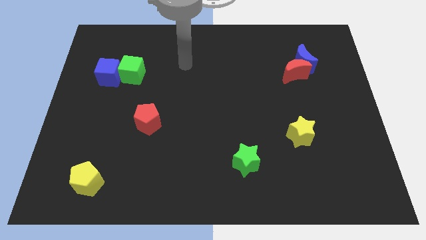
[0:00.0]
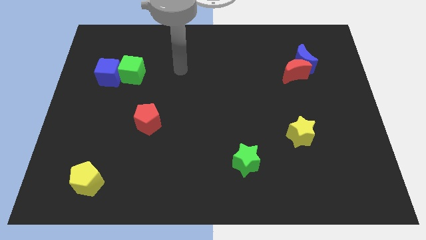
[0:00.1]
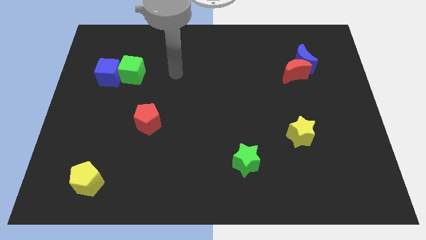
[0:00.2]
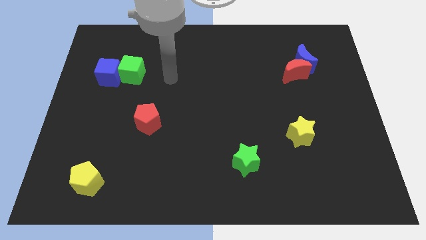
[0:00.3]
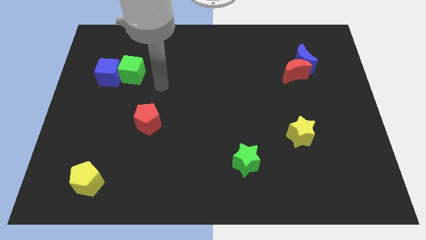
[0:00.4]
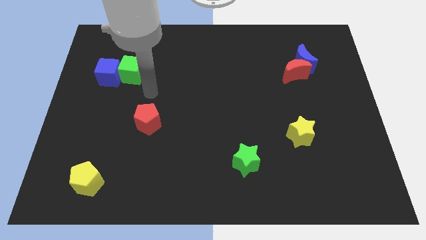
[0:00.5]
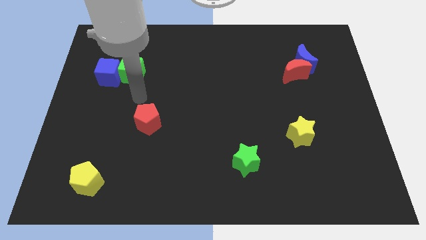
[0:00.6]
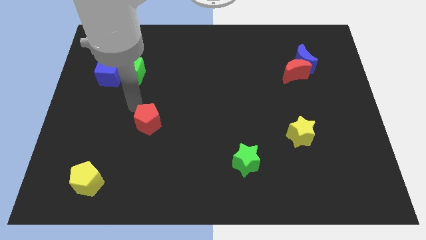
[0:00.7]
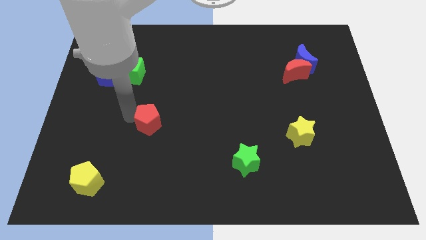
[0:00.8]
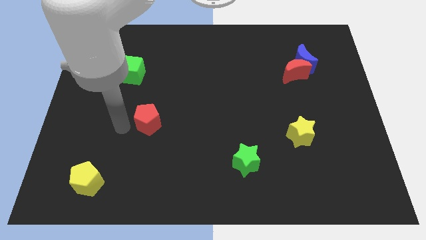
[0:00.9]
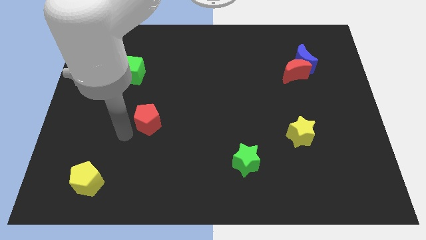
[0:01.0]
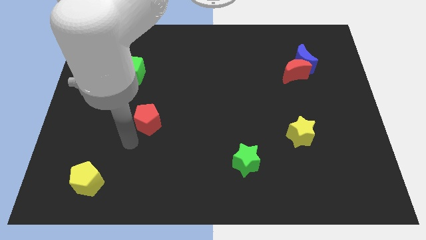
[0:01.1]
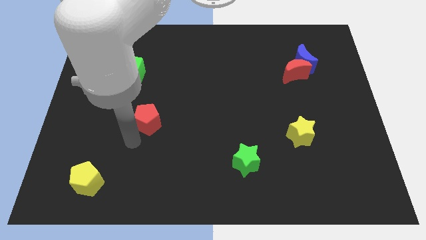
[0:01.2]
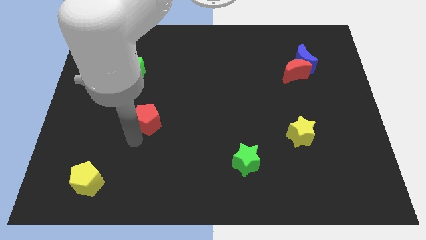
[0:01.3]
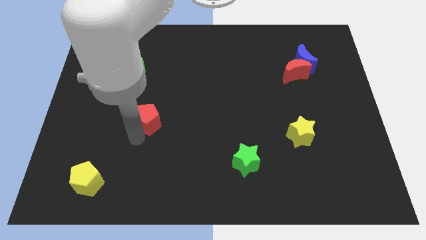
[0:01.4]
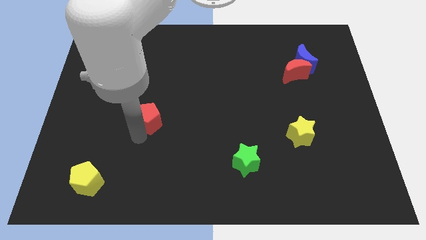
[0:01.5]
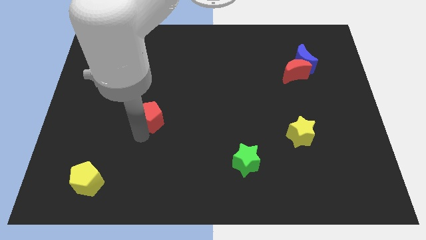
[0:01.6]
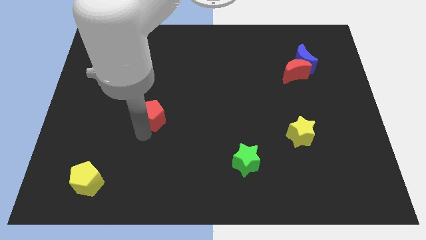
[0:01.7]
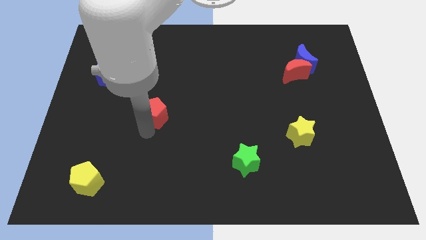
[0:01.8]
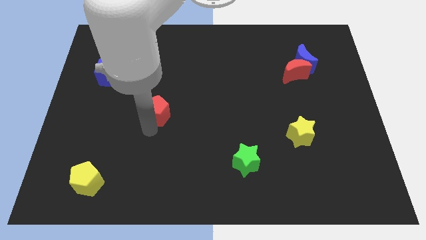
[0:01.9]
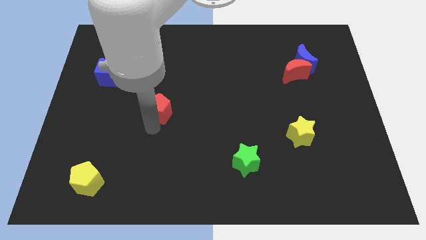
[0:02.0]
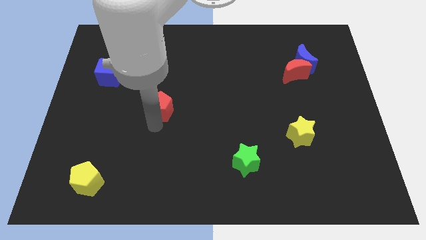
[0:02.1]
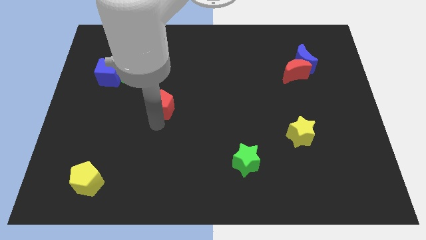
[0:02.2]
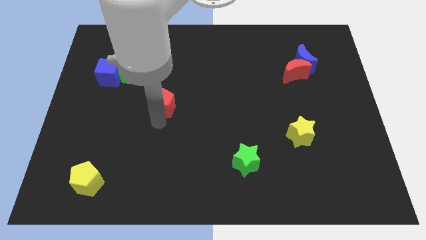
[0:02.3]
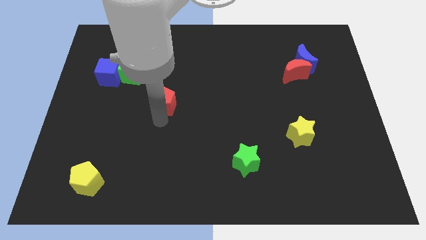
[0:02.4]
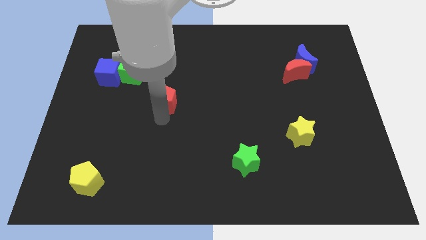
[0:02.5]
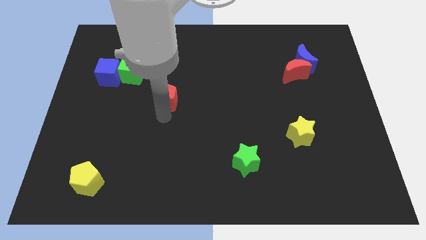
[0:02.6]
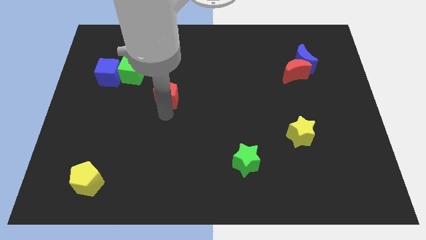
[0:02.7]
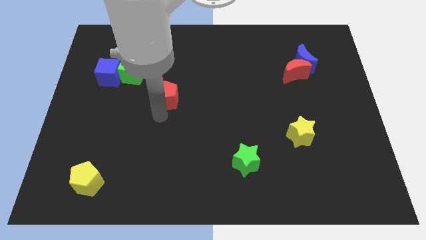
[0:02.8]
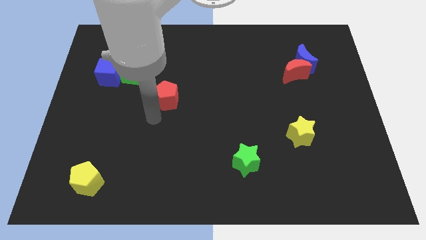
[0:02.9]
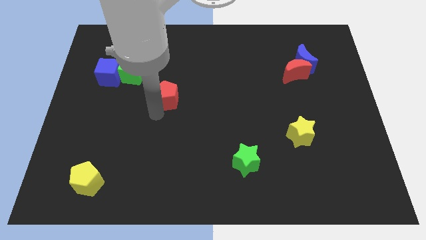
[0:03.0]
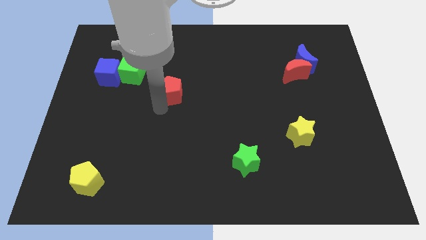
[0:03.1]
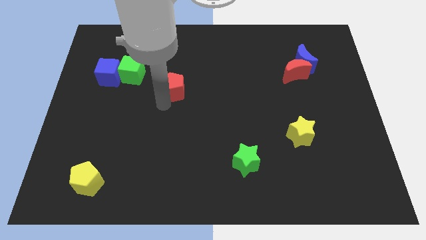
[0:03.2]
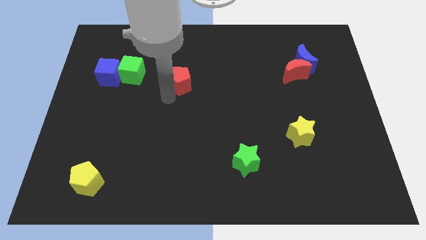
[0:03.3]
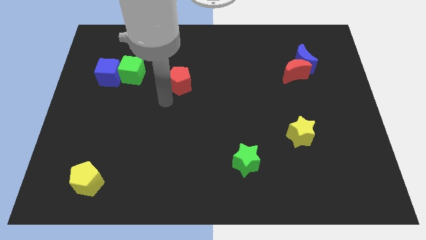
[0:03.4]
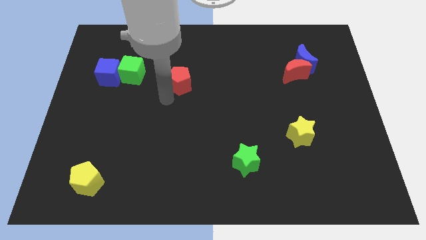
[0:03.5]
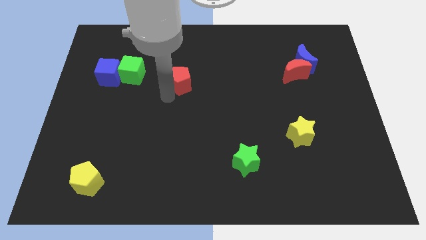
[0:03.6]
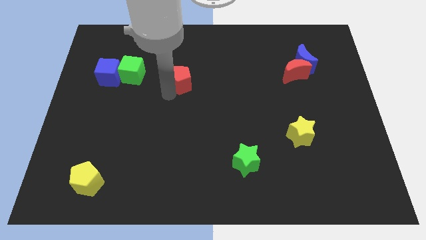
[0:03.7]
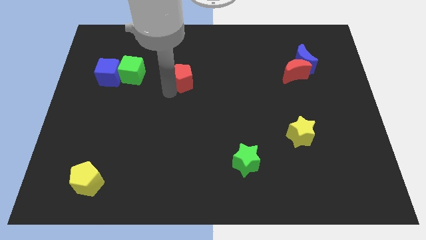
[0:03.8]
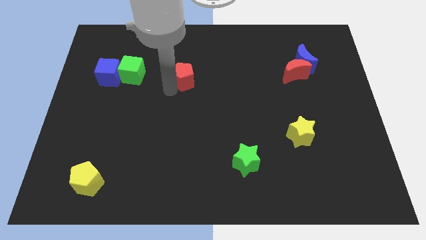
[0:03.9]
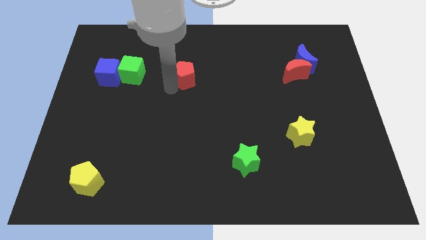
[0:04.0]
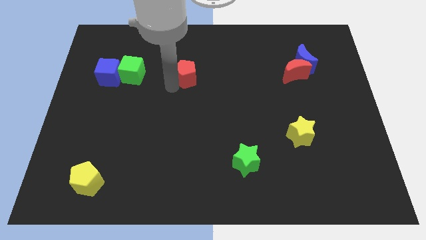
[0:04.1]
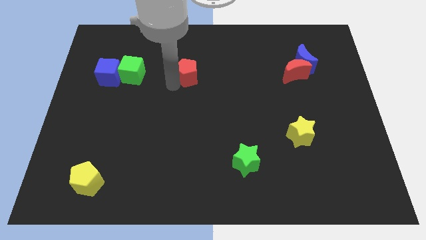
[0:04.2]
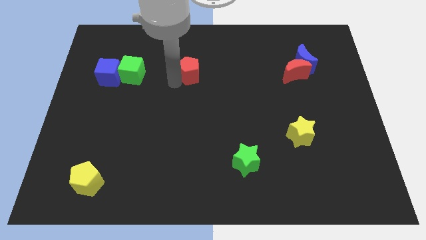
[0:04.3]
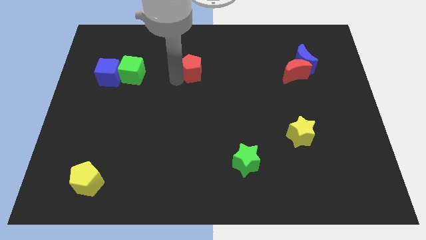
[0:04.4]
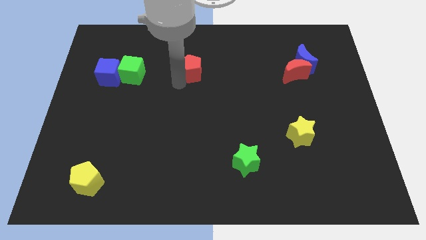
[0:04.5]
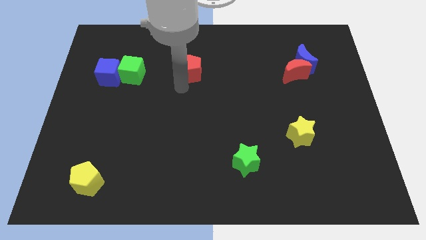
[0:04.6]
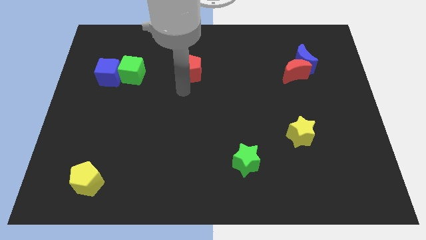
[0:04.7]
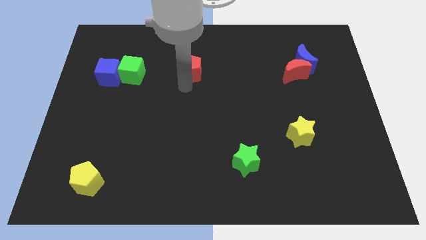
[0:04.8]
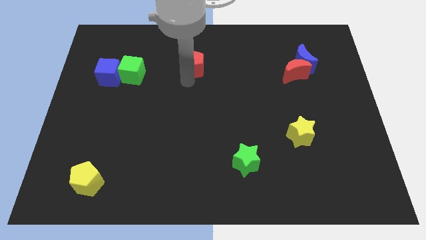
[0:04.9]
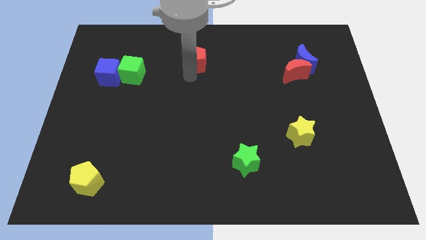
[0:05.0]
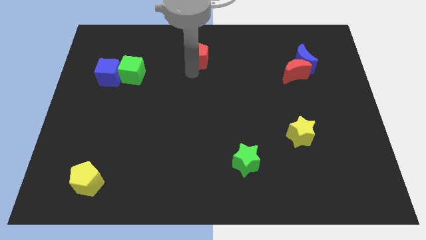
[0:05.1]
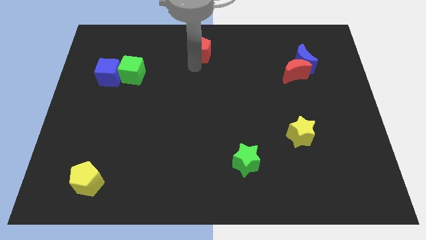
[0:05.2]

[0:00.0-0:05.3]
push the red pentagon to the top

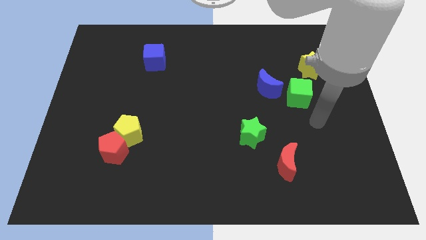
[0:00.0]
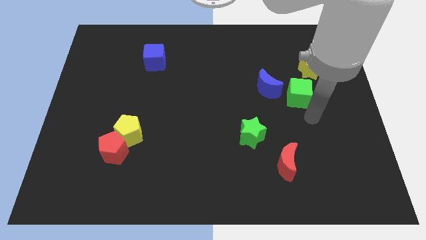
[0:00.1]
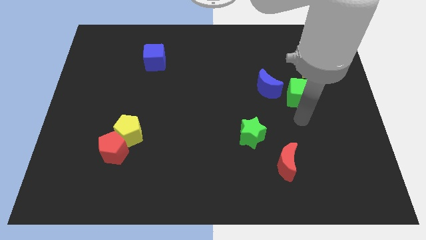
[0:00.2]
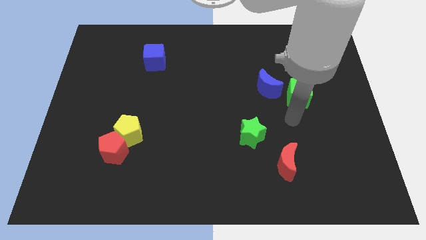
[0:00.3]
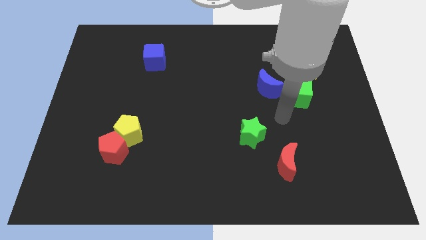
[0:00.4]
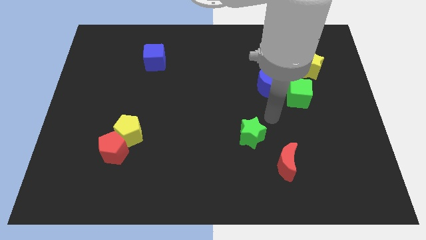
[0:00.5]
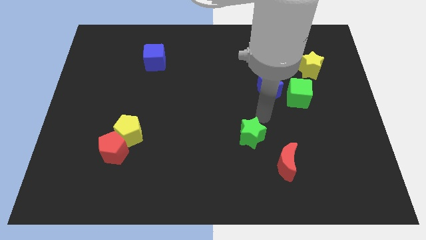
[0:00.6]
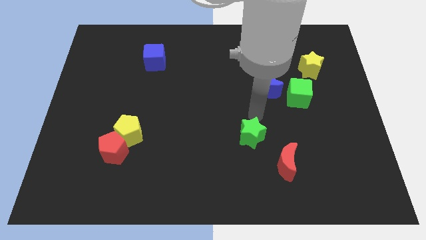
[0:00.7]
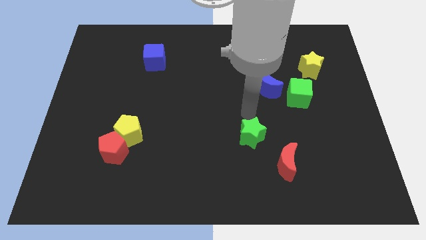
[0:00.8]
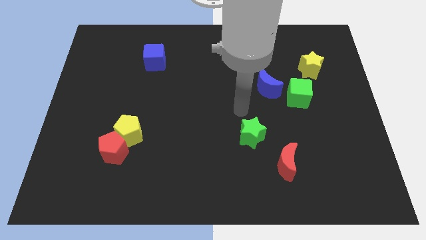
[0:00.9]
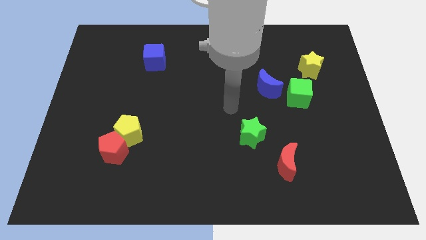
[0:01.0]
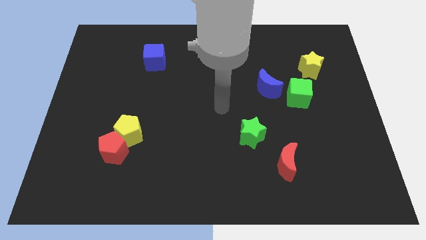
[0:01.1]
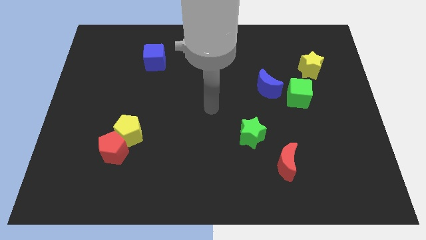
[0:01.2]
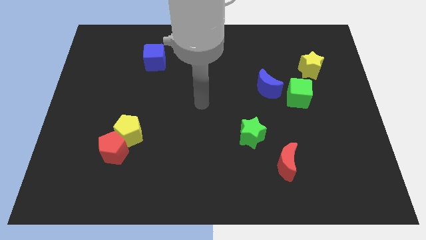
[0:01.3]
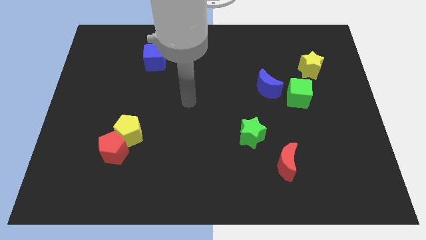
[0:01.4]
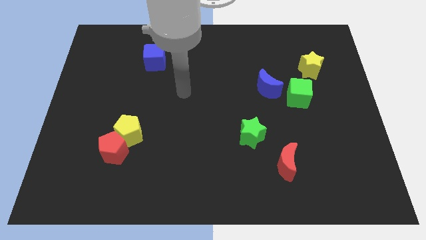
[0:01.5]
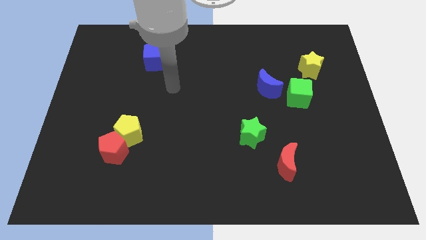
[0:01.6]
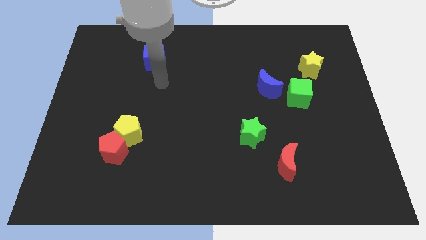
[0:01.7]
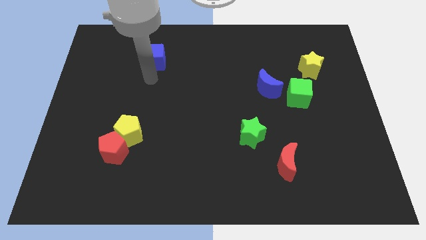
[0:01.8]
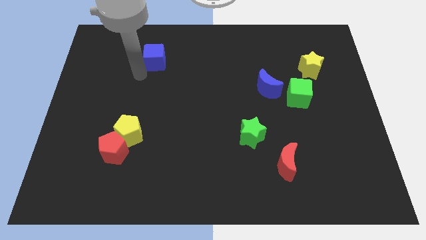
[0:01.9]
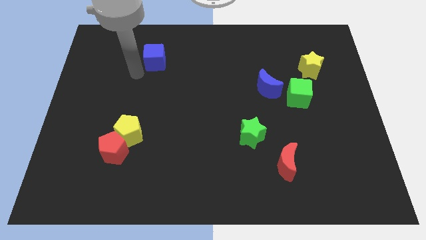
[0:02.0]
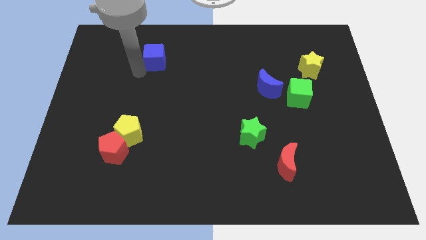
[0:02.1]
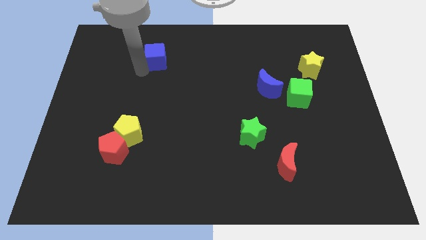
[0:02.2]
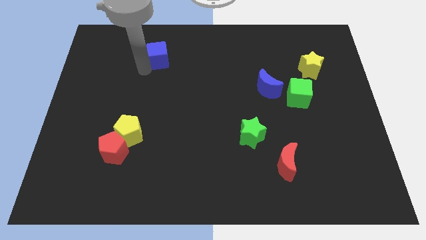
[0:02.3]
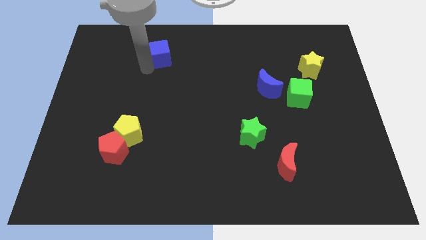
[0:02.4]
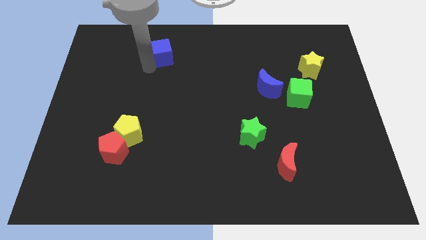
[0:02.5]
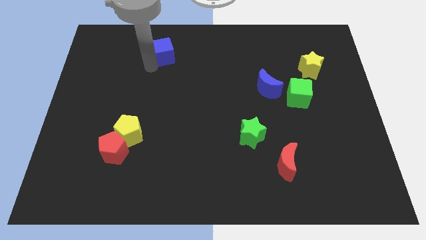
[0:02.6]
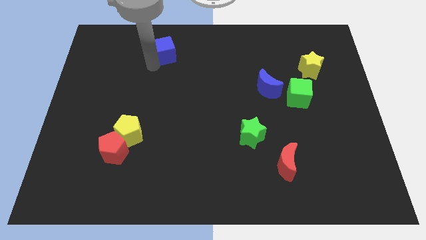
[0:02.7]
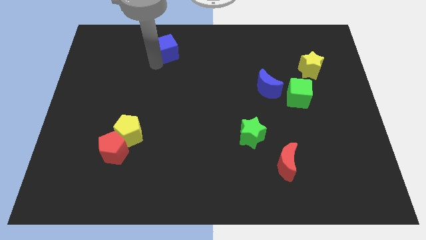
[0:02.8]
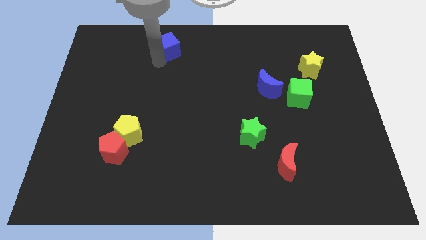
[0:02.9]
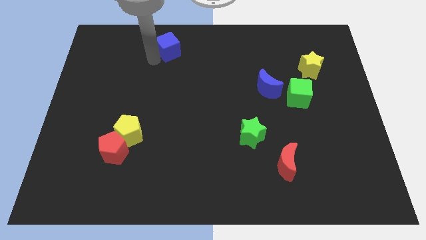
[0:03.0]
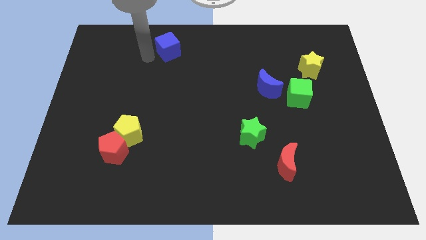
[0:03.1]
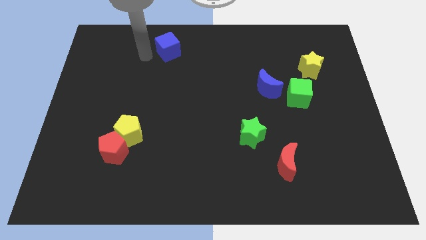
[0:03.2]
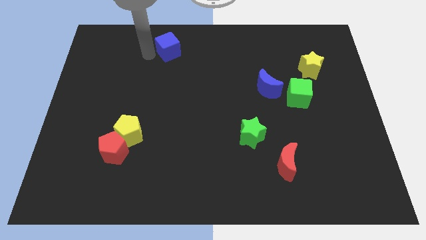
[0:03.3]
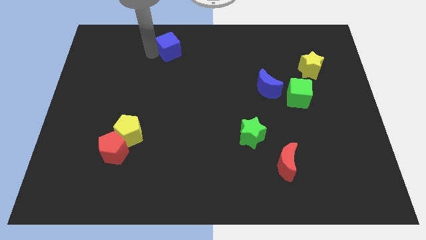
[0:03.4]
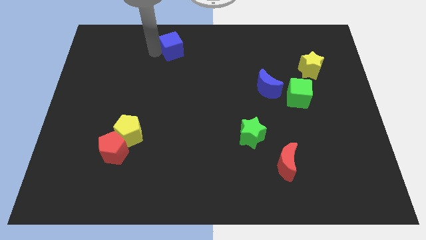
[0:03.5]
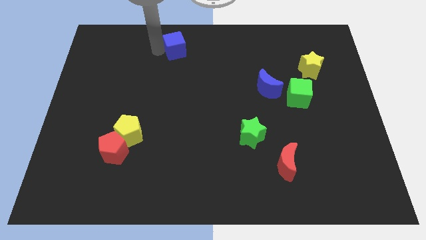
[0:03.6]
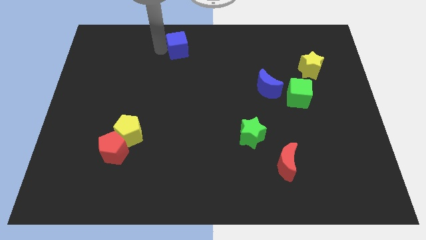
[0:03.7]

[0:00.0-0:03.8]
put the blue cube to the towards your base
